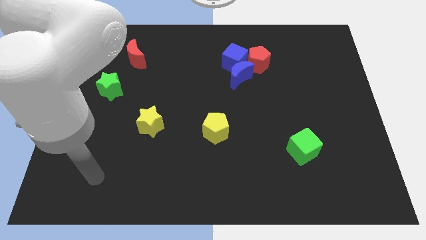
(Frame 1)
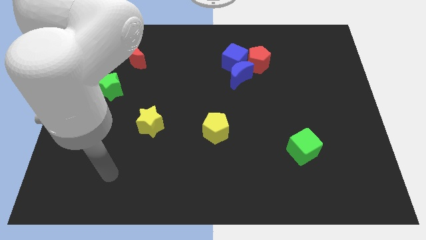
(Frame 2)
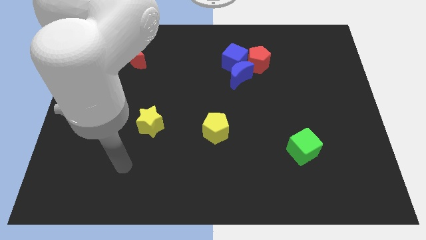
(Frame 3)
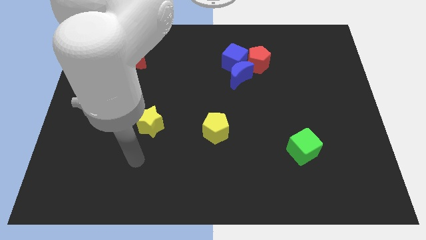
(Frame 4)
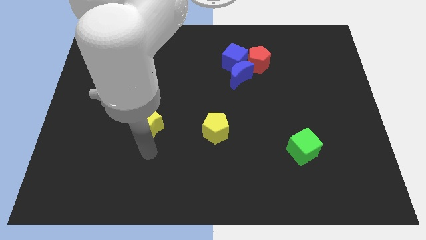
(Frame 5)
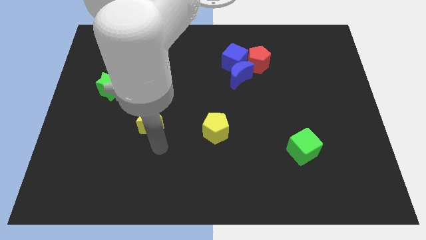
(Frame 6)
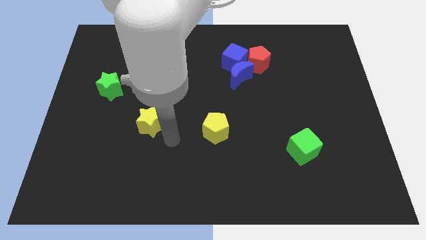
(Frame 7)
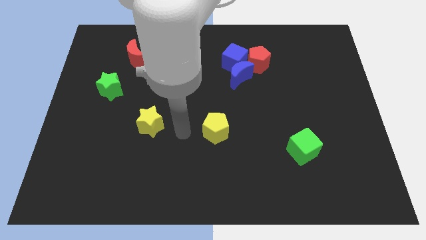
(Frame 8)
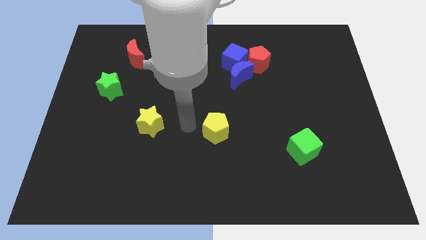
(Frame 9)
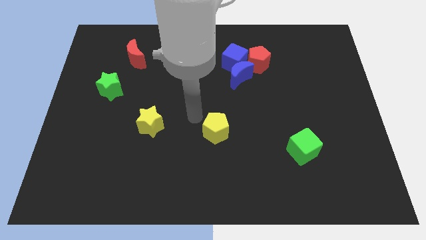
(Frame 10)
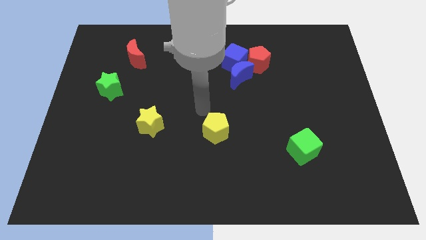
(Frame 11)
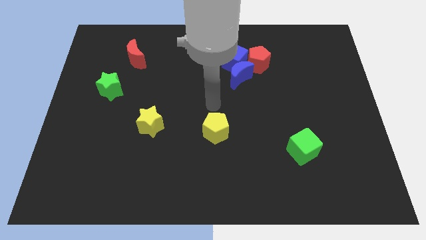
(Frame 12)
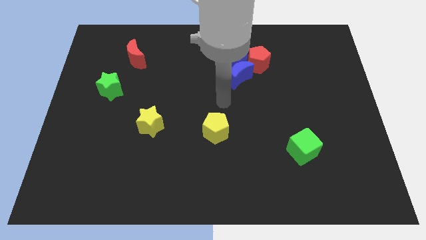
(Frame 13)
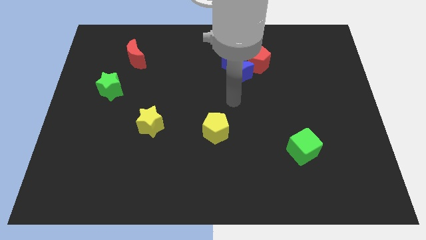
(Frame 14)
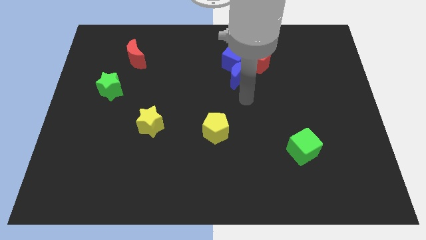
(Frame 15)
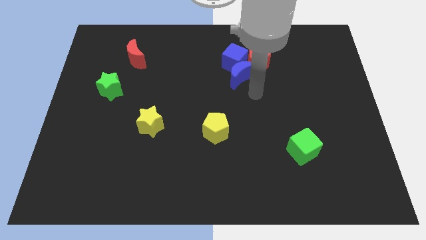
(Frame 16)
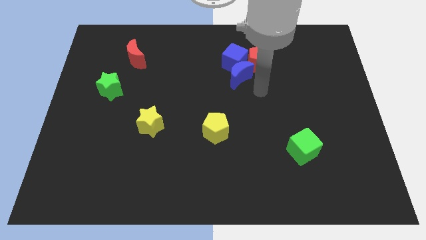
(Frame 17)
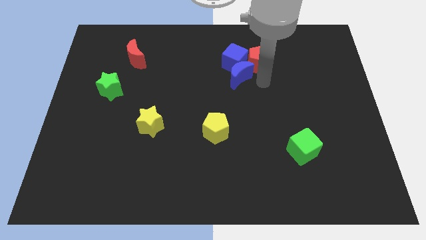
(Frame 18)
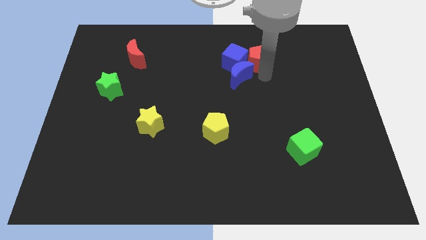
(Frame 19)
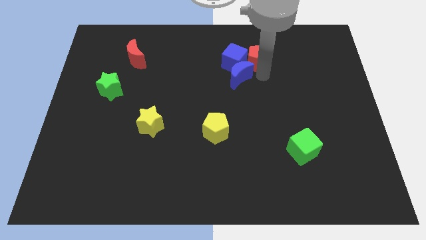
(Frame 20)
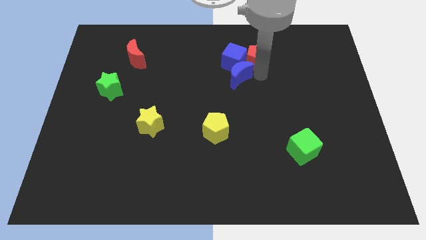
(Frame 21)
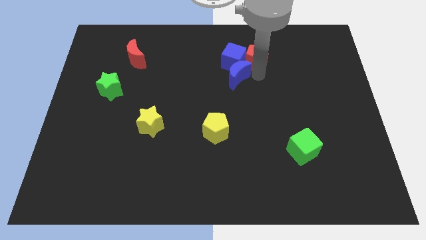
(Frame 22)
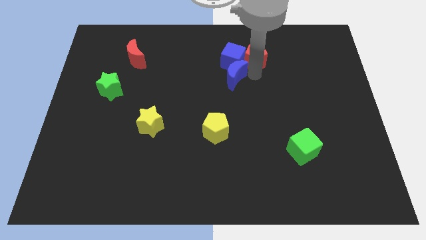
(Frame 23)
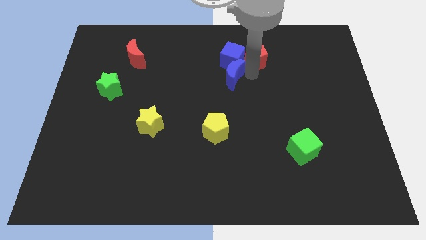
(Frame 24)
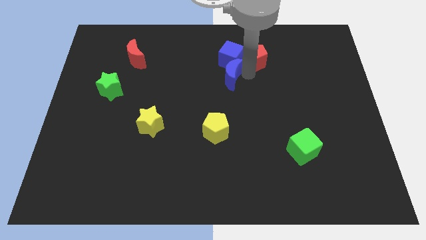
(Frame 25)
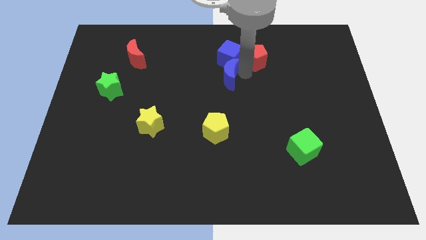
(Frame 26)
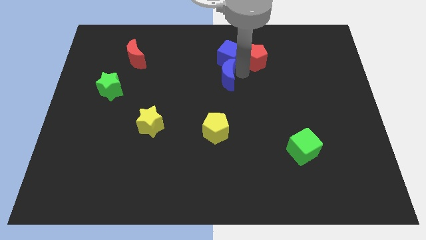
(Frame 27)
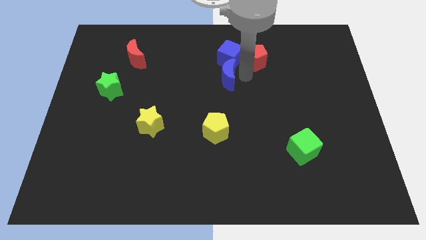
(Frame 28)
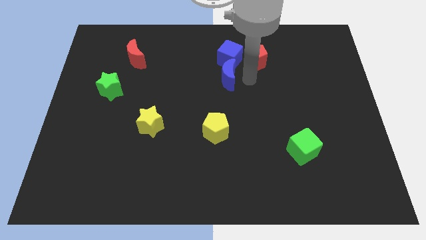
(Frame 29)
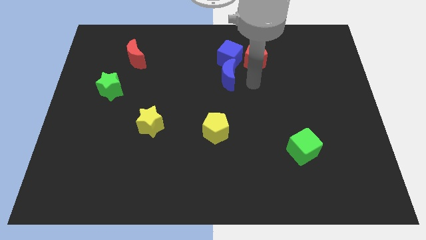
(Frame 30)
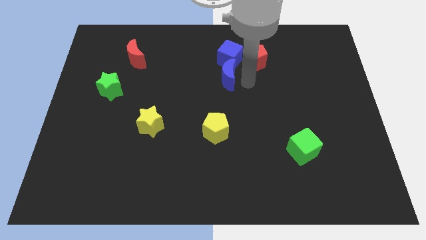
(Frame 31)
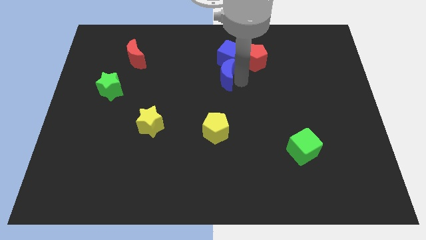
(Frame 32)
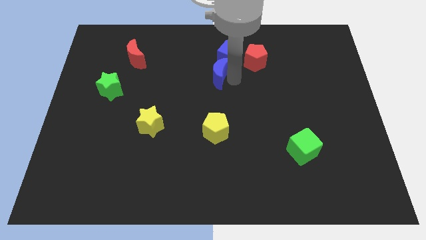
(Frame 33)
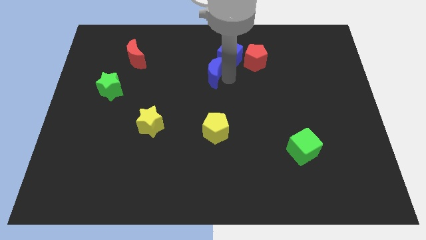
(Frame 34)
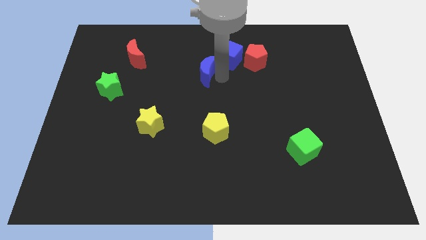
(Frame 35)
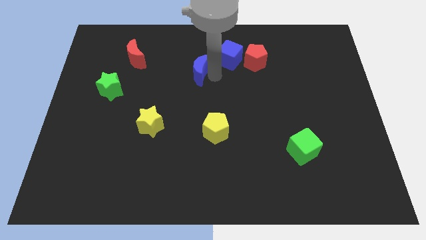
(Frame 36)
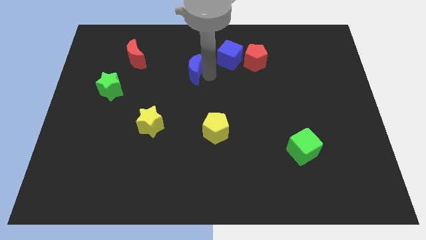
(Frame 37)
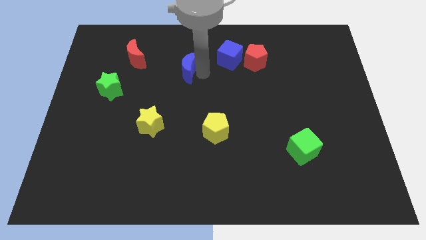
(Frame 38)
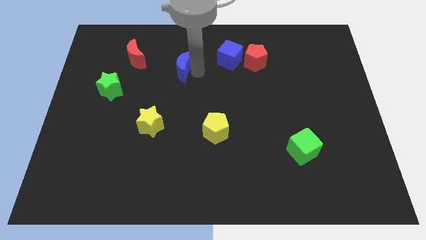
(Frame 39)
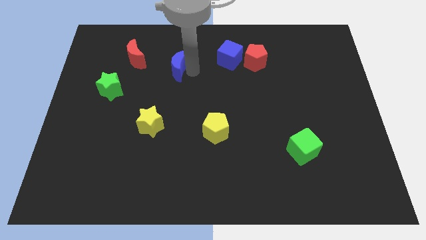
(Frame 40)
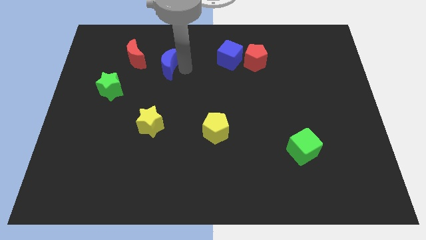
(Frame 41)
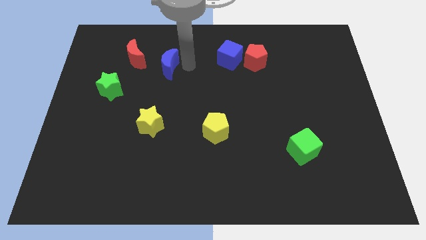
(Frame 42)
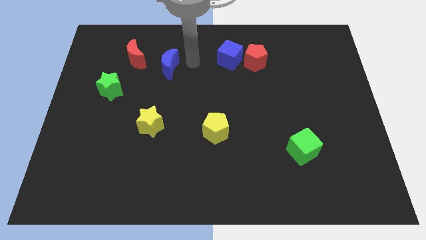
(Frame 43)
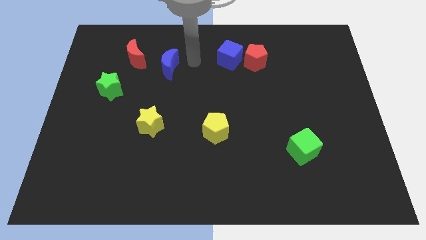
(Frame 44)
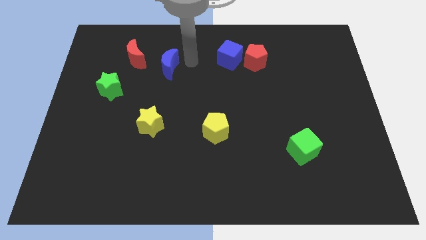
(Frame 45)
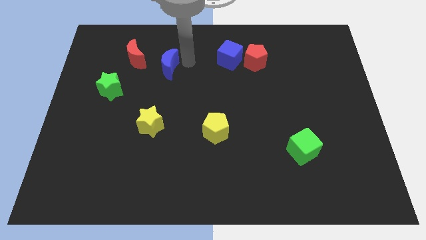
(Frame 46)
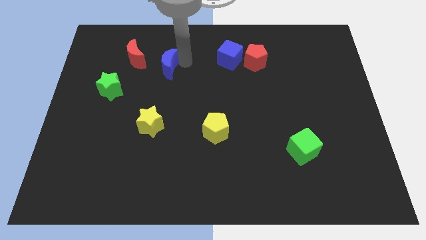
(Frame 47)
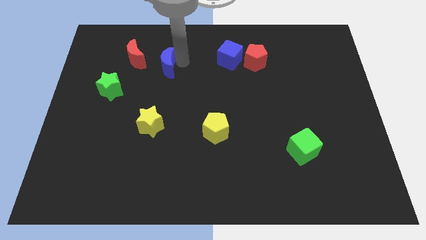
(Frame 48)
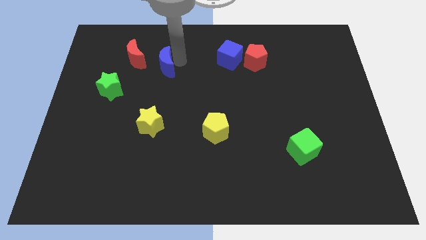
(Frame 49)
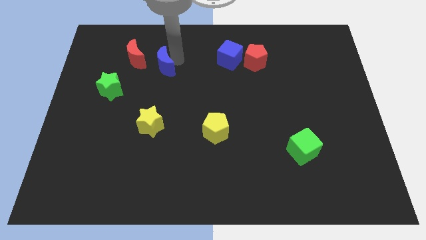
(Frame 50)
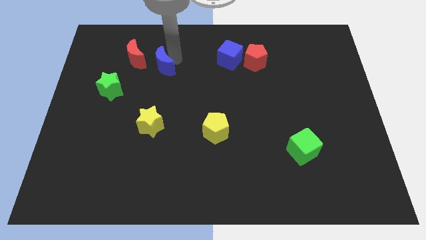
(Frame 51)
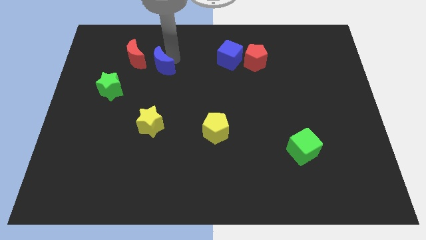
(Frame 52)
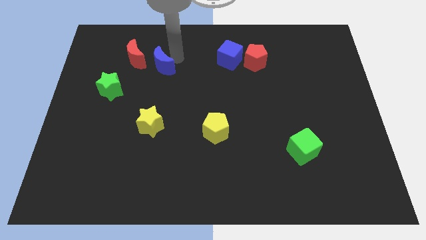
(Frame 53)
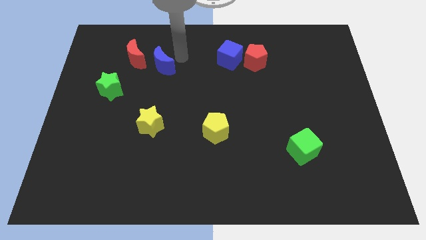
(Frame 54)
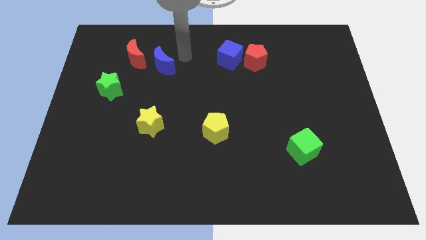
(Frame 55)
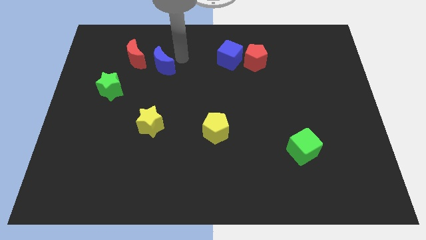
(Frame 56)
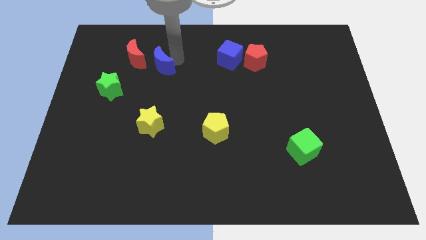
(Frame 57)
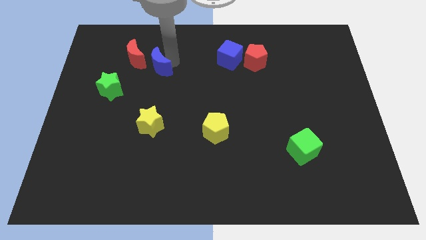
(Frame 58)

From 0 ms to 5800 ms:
move the blue moon to the left

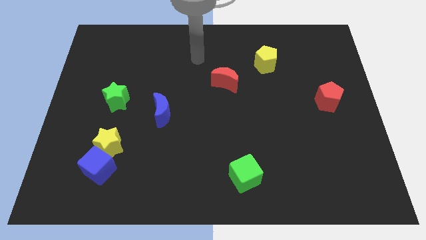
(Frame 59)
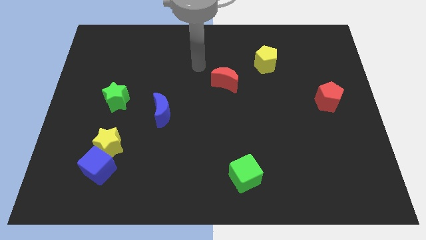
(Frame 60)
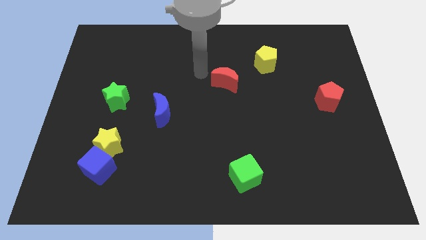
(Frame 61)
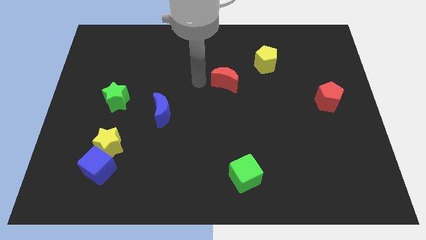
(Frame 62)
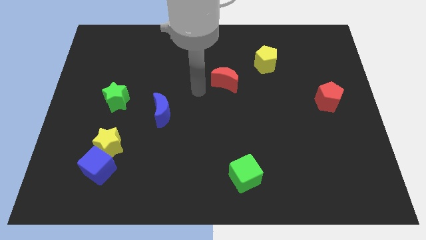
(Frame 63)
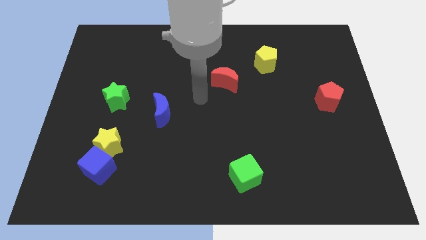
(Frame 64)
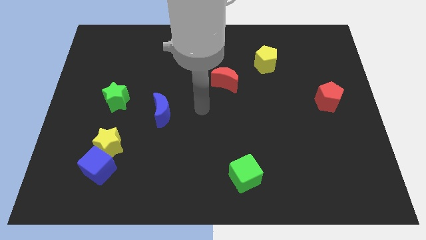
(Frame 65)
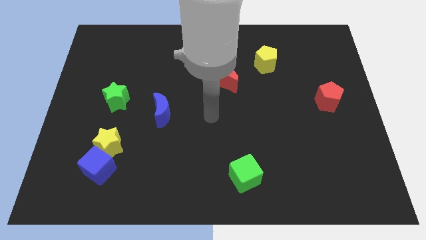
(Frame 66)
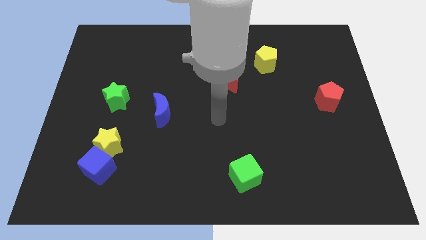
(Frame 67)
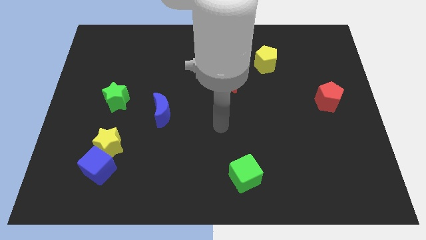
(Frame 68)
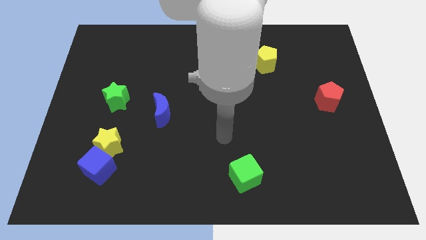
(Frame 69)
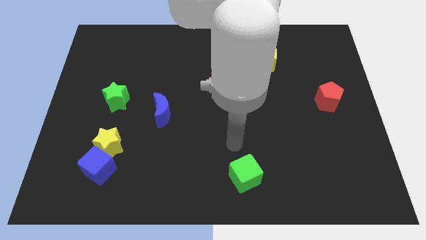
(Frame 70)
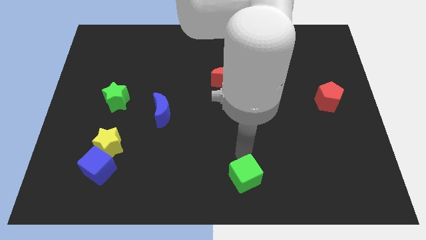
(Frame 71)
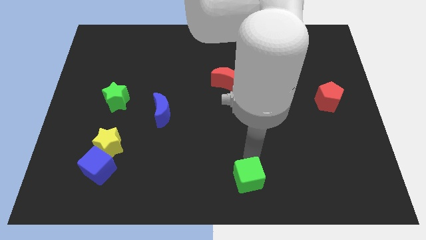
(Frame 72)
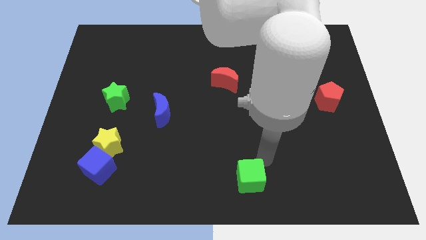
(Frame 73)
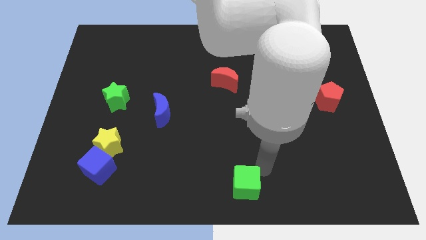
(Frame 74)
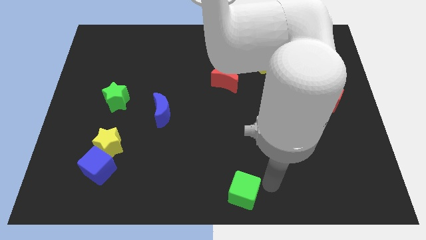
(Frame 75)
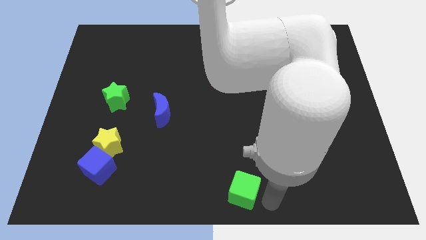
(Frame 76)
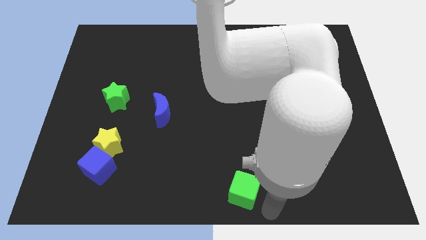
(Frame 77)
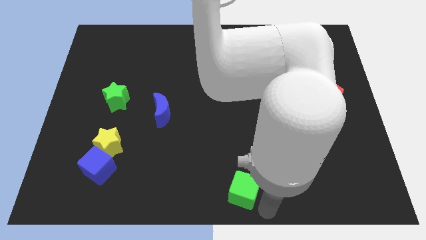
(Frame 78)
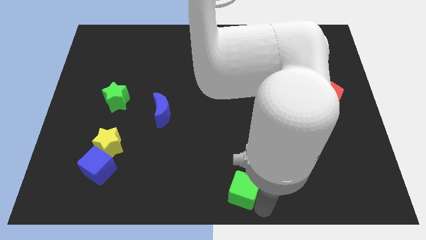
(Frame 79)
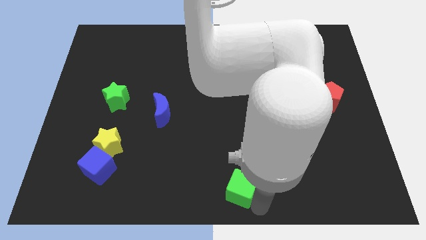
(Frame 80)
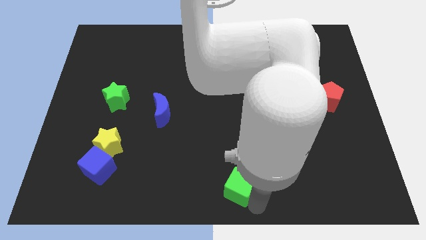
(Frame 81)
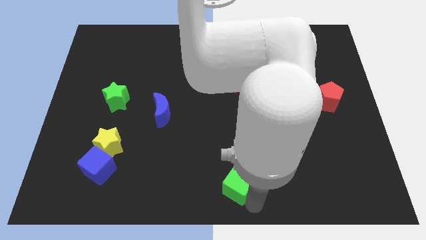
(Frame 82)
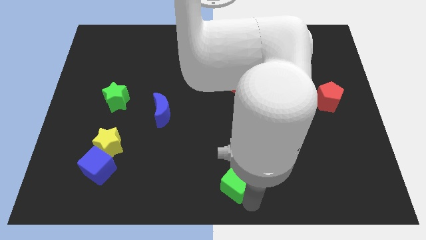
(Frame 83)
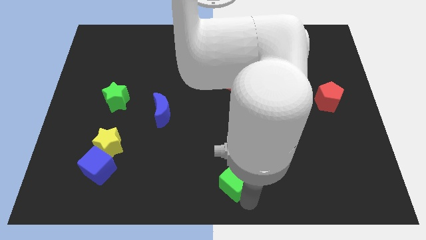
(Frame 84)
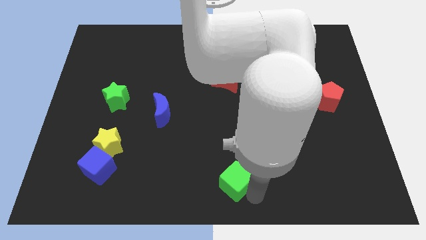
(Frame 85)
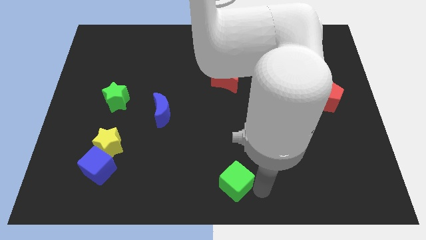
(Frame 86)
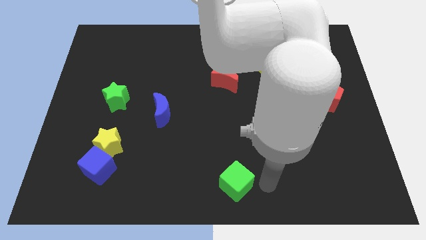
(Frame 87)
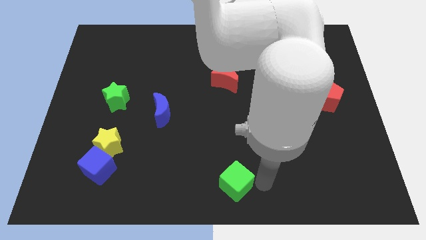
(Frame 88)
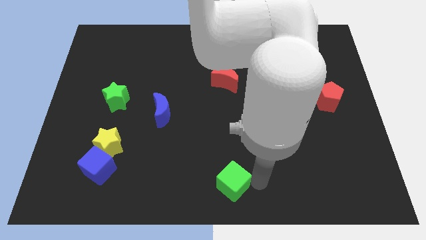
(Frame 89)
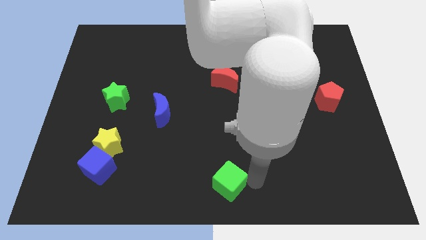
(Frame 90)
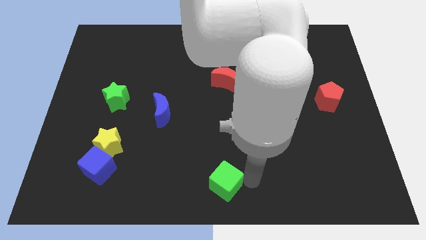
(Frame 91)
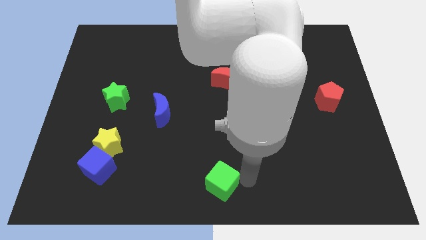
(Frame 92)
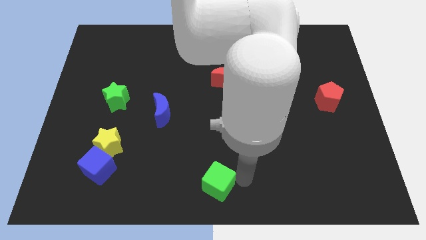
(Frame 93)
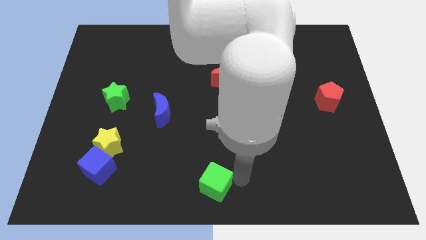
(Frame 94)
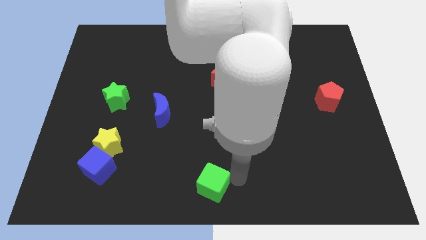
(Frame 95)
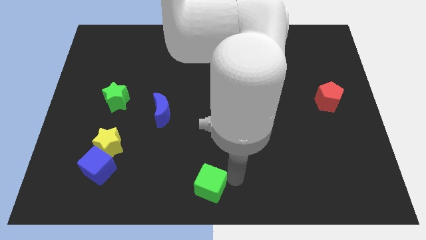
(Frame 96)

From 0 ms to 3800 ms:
slightly push the green cube to the left
